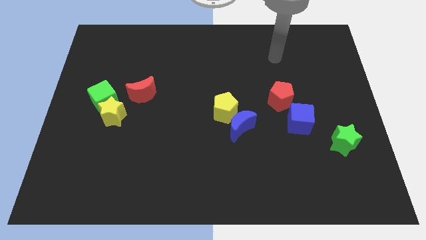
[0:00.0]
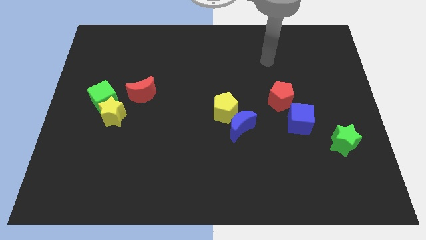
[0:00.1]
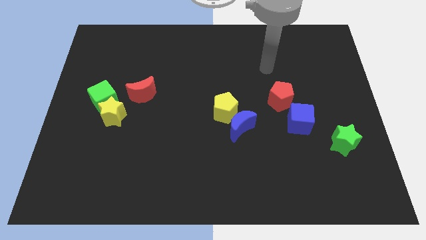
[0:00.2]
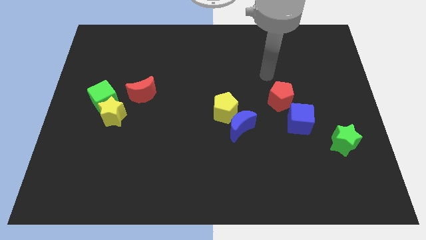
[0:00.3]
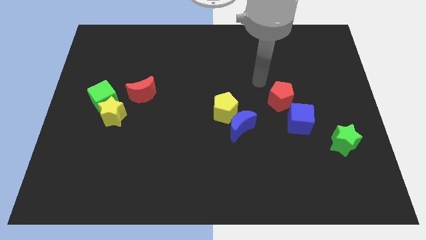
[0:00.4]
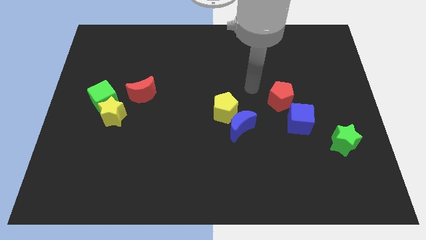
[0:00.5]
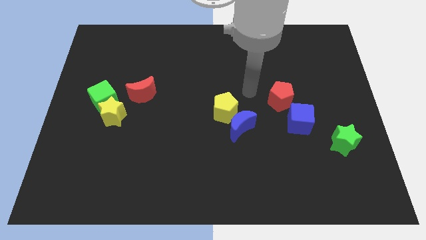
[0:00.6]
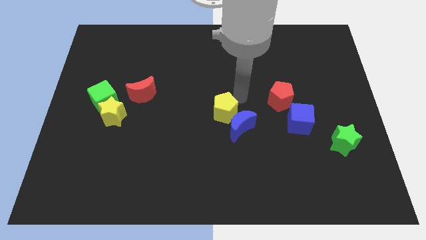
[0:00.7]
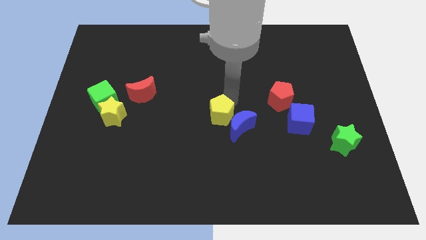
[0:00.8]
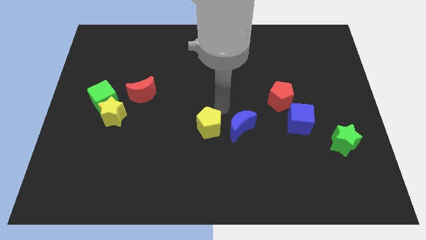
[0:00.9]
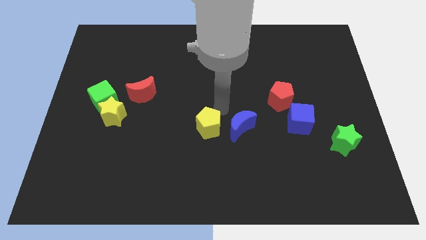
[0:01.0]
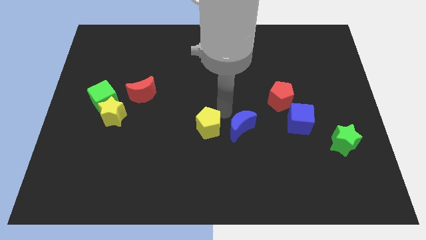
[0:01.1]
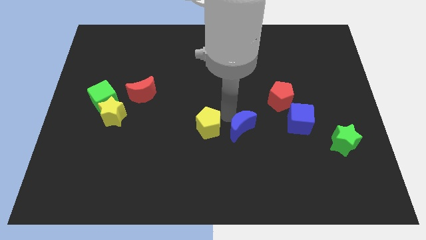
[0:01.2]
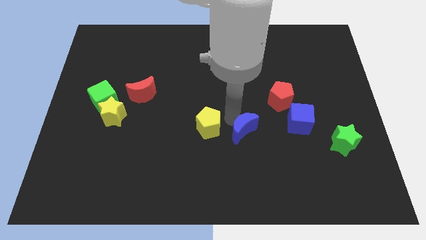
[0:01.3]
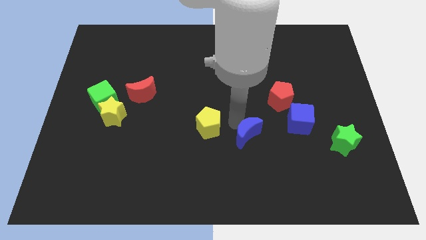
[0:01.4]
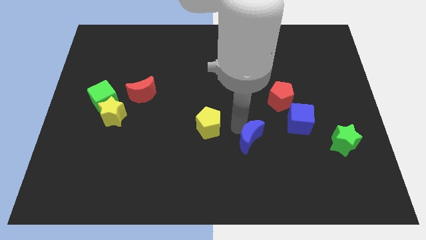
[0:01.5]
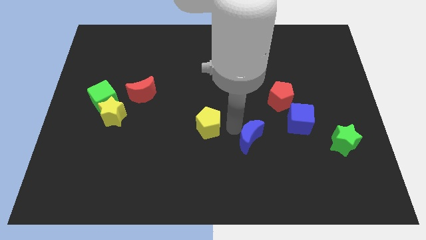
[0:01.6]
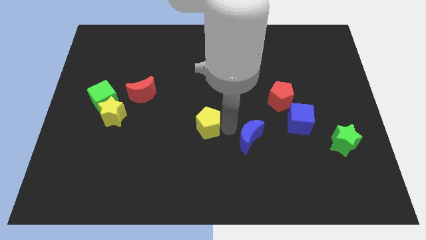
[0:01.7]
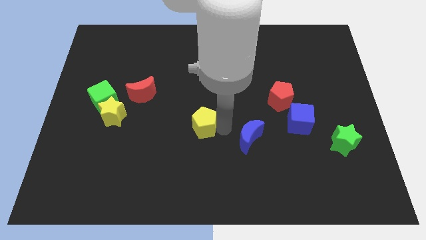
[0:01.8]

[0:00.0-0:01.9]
separate the blue moon from the yellow pentagon

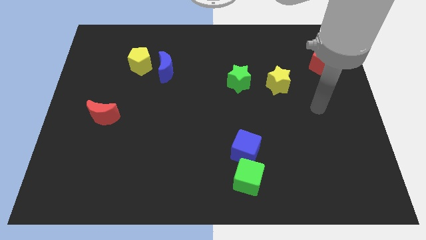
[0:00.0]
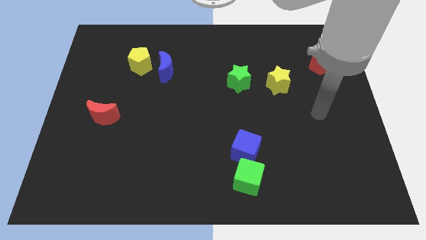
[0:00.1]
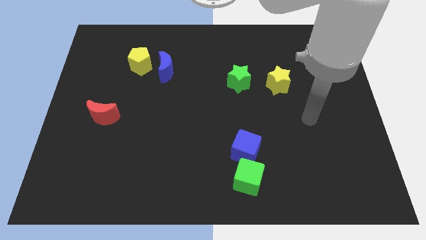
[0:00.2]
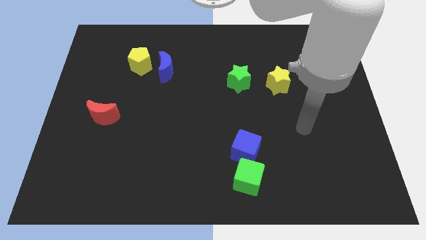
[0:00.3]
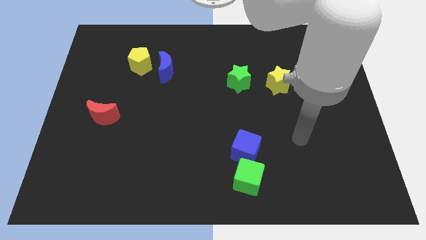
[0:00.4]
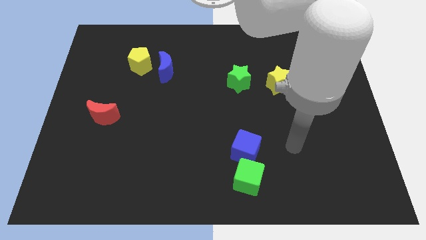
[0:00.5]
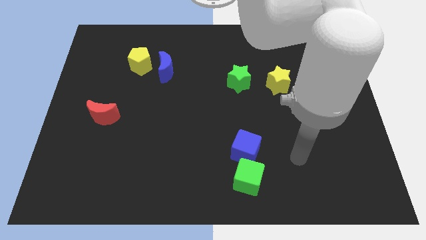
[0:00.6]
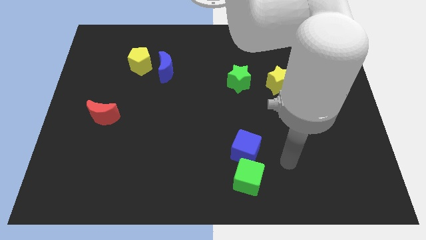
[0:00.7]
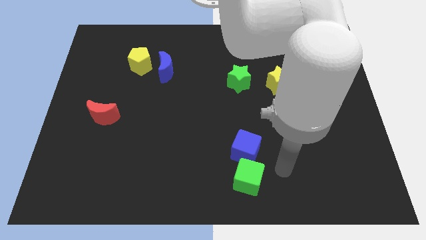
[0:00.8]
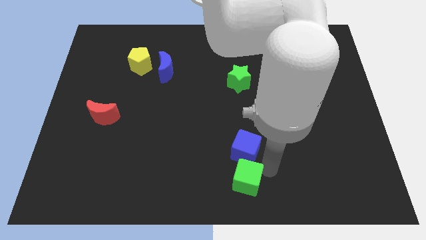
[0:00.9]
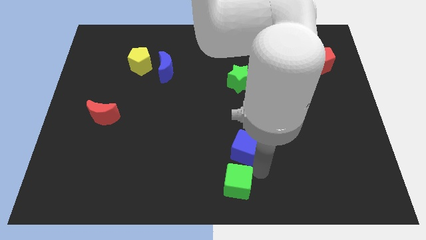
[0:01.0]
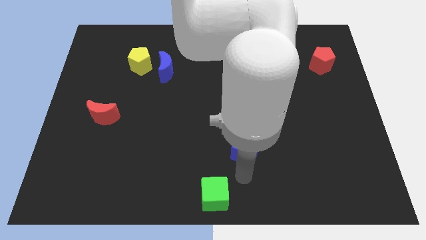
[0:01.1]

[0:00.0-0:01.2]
pull the blue cube apart from the green cube

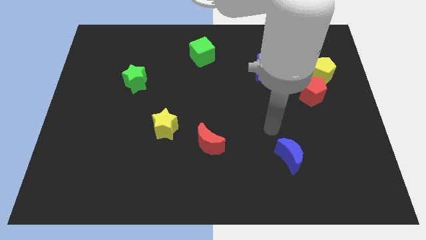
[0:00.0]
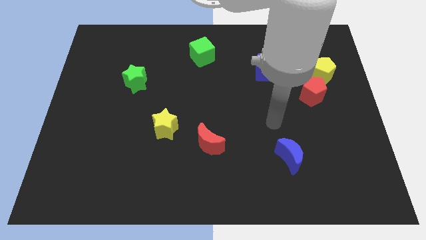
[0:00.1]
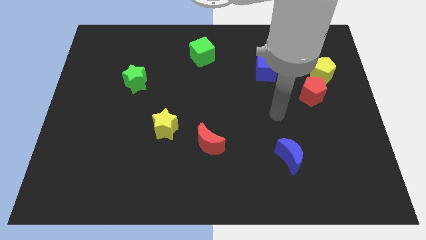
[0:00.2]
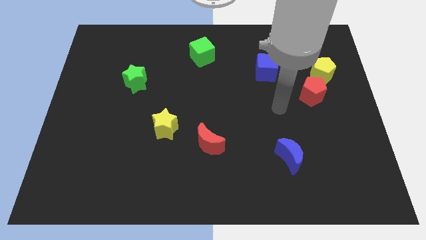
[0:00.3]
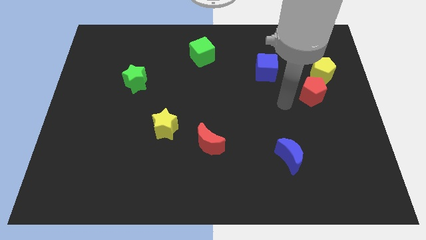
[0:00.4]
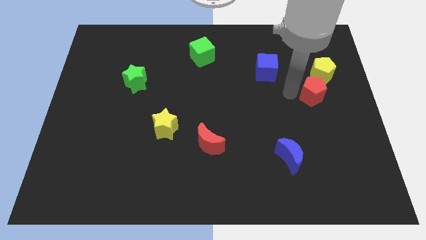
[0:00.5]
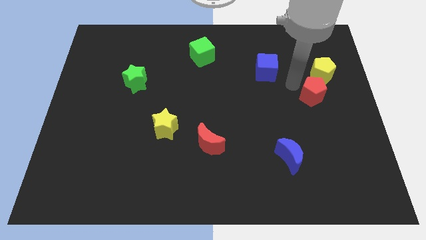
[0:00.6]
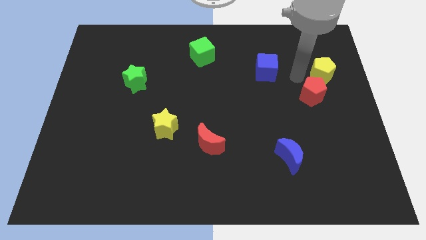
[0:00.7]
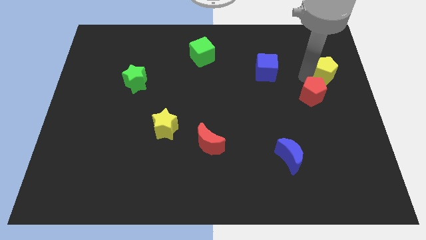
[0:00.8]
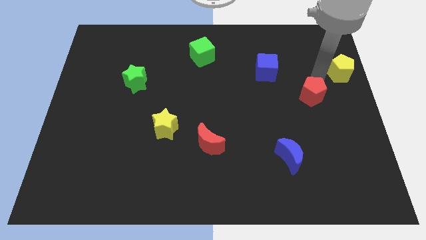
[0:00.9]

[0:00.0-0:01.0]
separate the red pentagon from the yellow pentagon

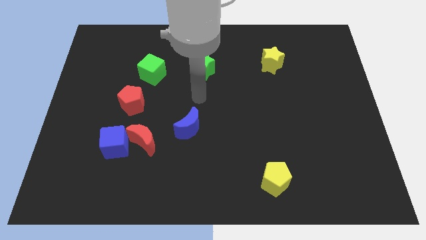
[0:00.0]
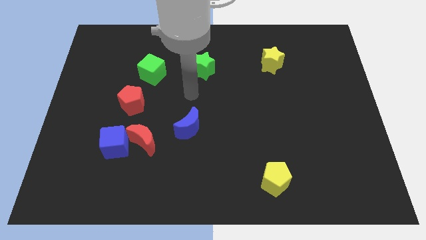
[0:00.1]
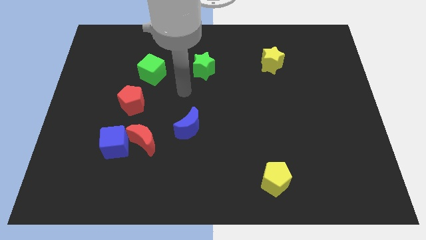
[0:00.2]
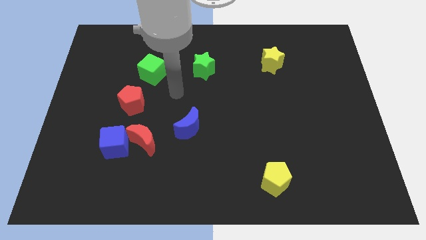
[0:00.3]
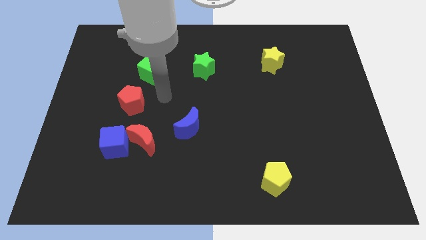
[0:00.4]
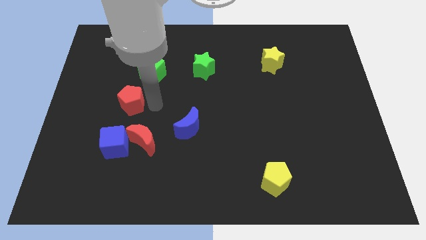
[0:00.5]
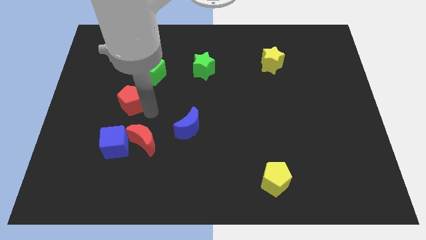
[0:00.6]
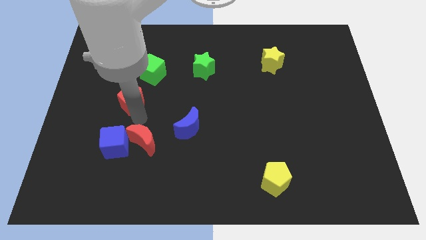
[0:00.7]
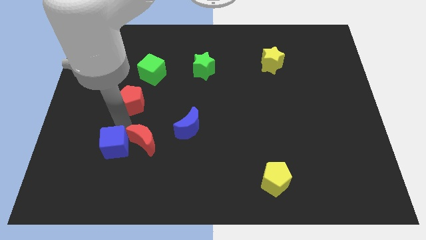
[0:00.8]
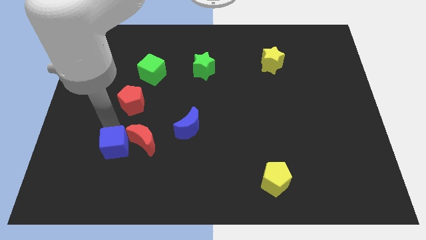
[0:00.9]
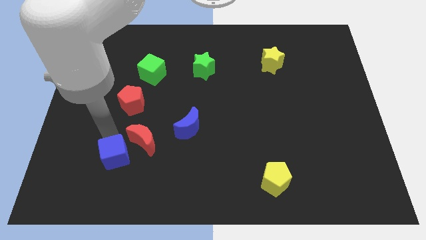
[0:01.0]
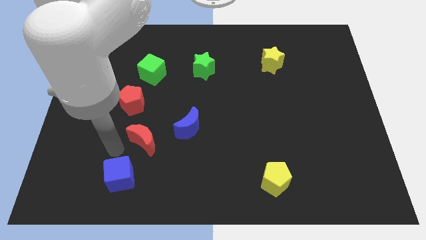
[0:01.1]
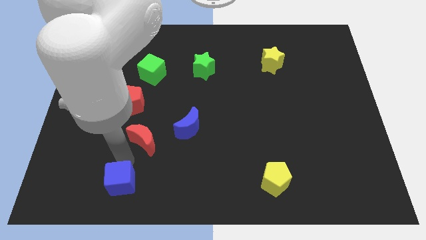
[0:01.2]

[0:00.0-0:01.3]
pull the red moon apart from the blue cube

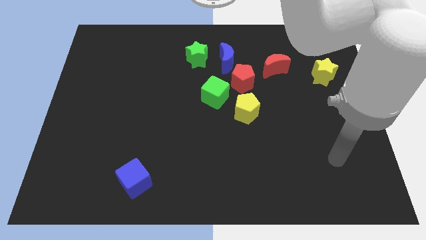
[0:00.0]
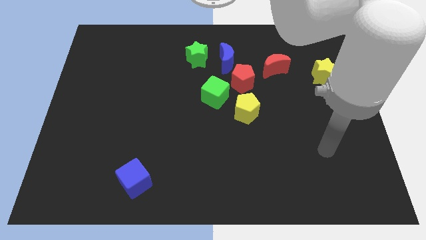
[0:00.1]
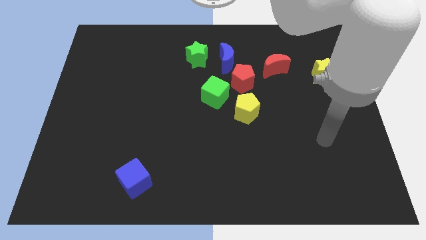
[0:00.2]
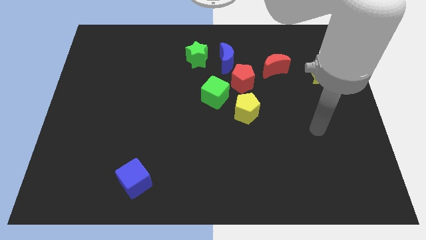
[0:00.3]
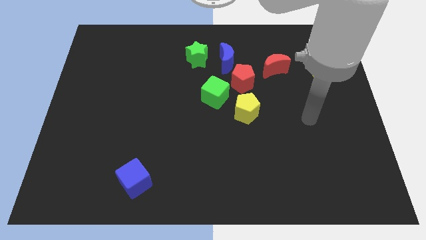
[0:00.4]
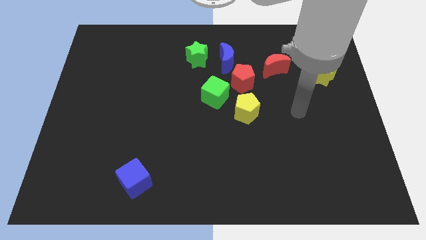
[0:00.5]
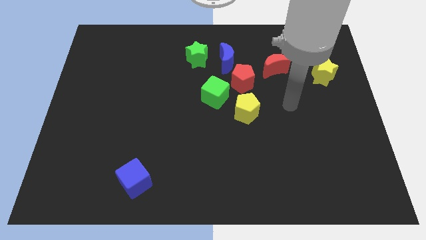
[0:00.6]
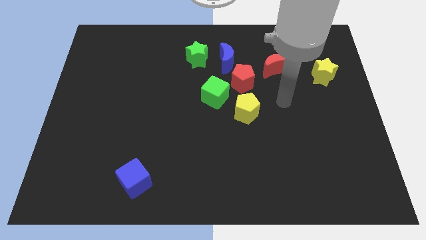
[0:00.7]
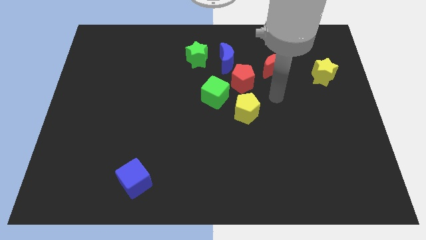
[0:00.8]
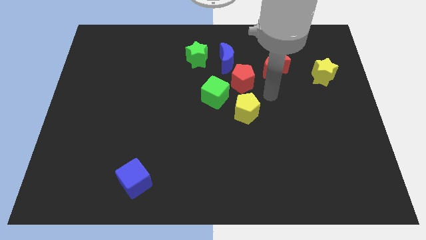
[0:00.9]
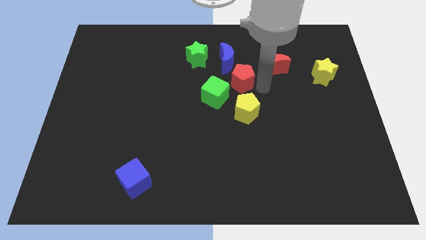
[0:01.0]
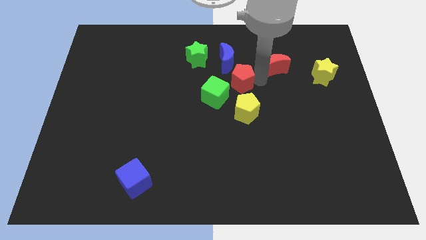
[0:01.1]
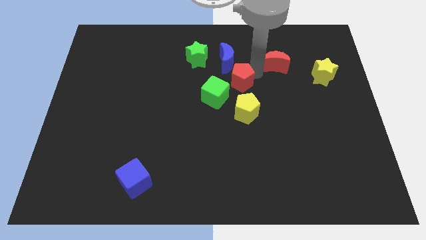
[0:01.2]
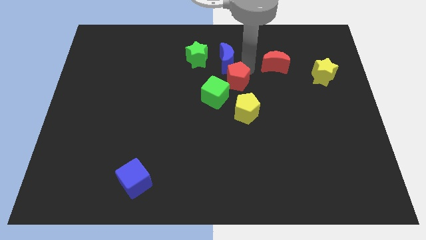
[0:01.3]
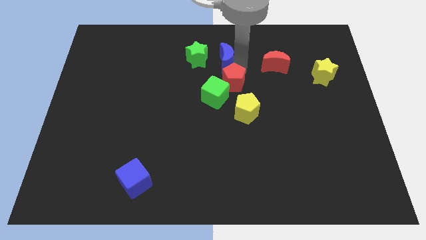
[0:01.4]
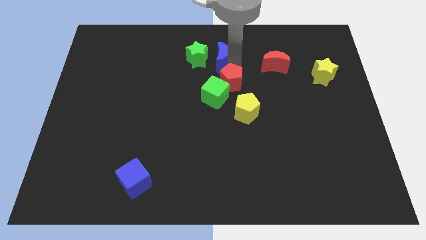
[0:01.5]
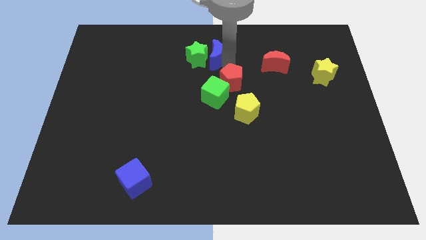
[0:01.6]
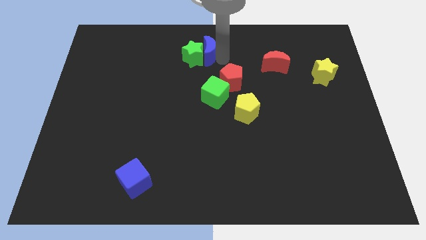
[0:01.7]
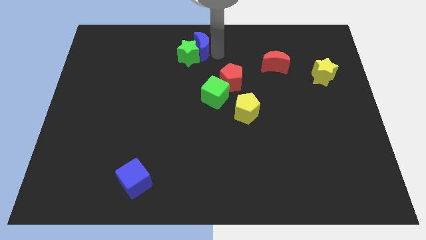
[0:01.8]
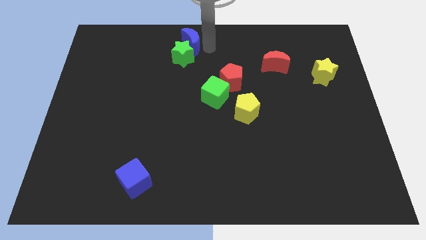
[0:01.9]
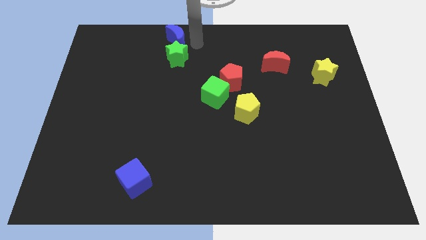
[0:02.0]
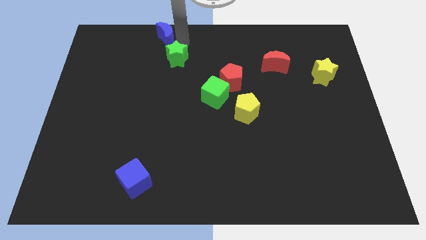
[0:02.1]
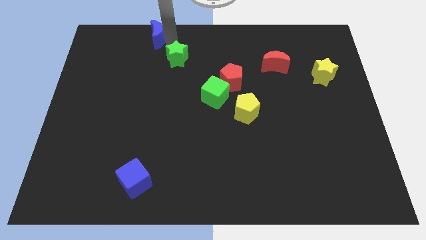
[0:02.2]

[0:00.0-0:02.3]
move the green star away from the blue moon

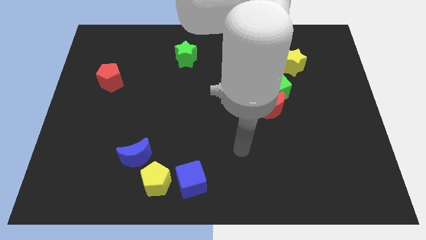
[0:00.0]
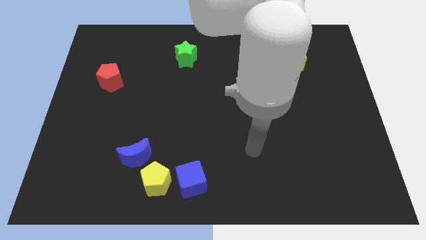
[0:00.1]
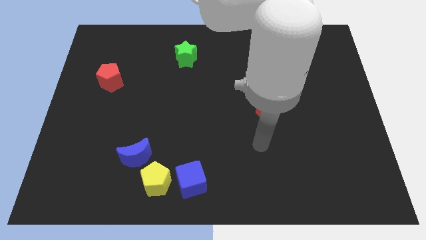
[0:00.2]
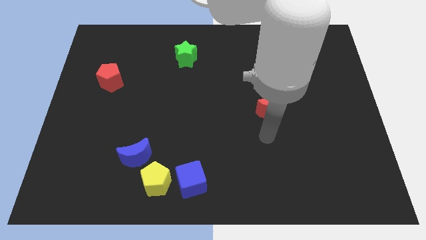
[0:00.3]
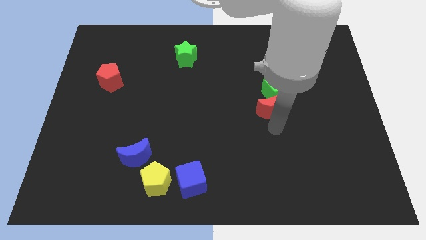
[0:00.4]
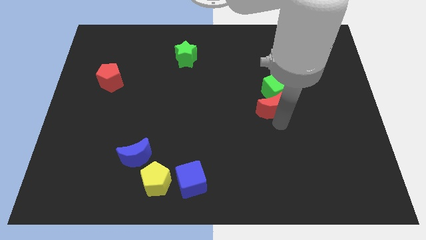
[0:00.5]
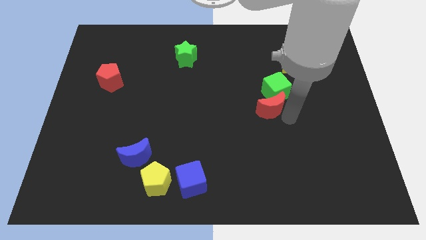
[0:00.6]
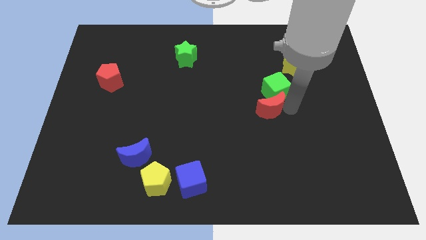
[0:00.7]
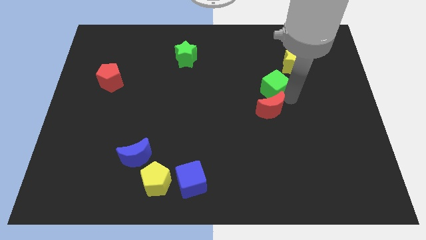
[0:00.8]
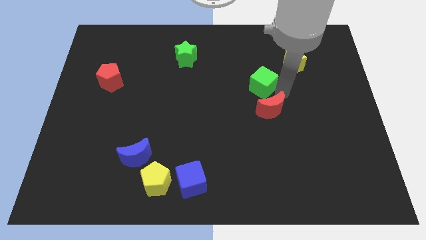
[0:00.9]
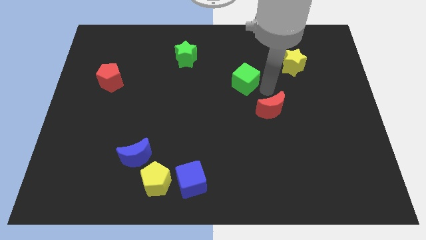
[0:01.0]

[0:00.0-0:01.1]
move the red moon away from the green cube

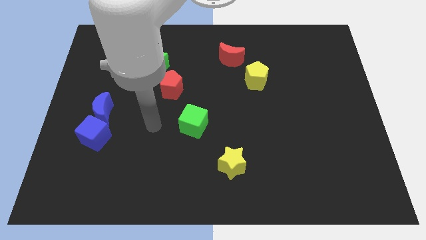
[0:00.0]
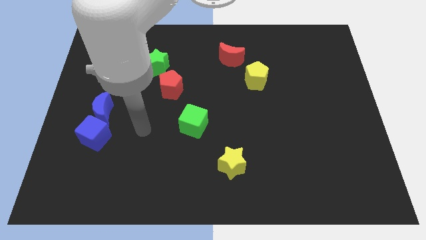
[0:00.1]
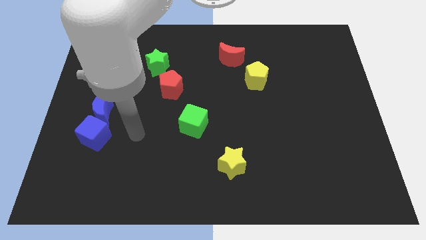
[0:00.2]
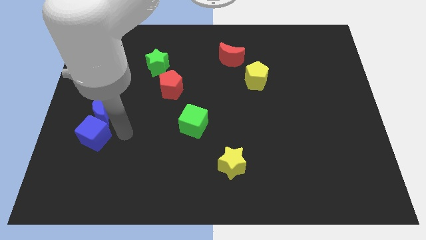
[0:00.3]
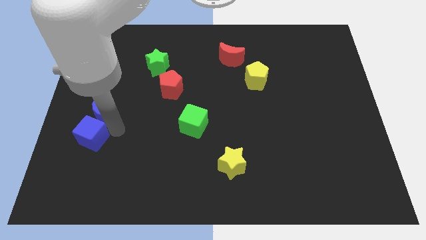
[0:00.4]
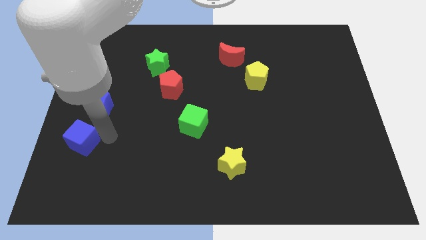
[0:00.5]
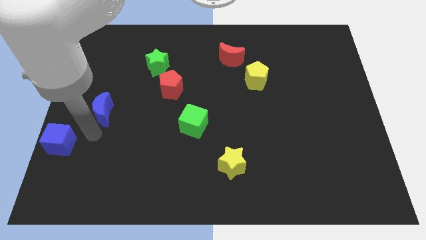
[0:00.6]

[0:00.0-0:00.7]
separate the blue moon from the blue cube

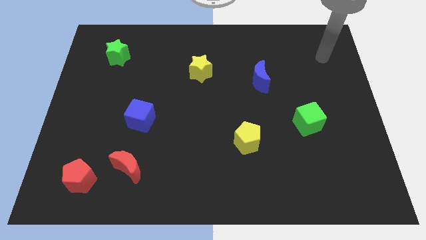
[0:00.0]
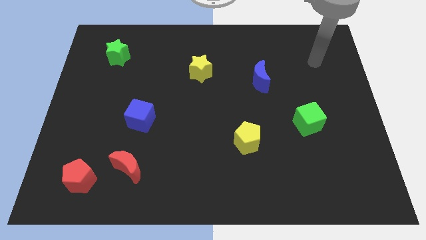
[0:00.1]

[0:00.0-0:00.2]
move the red moon away from the red pentagon
